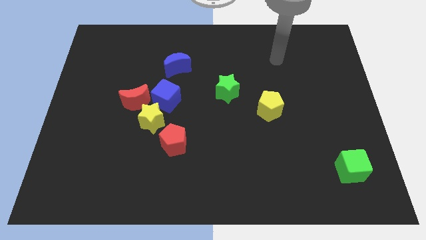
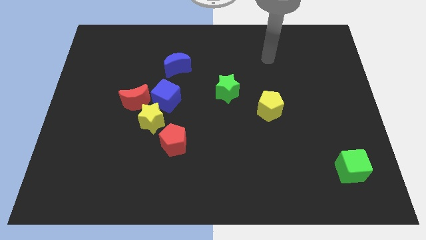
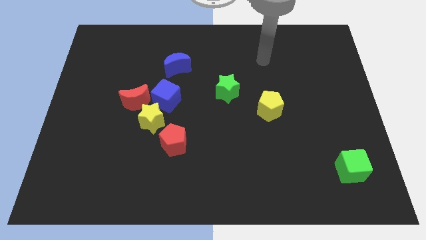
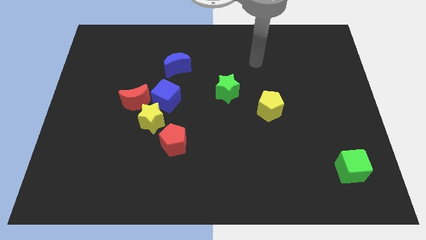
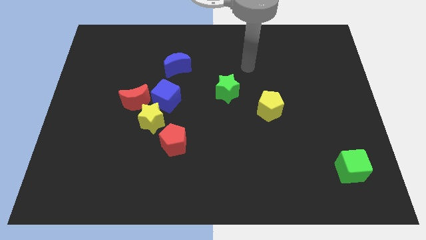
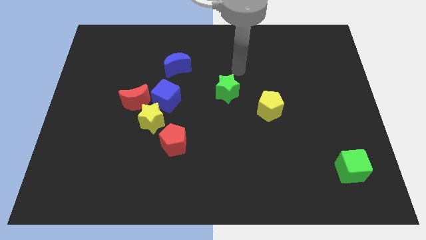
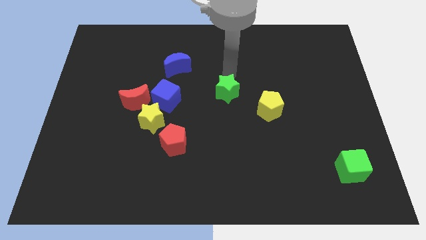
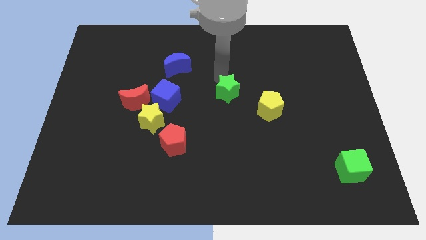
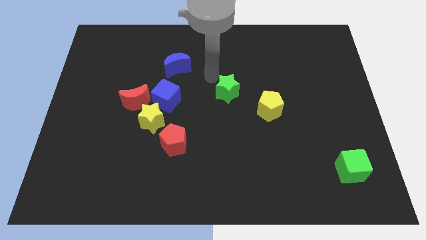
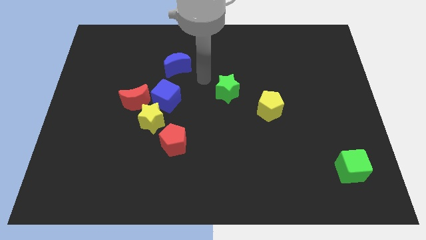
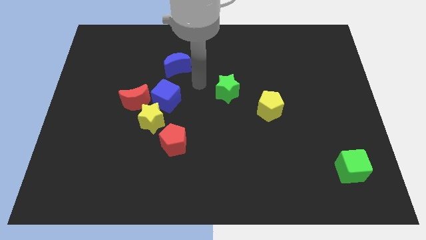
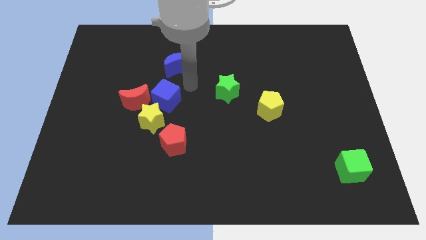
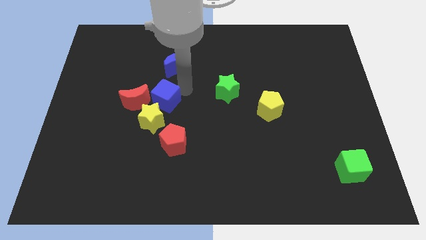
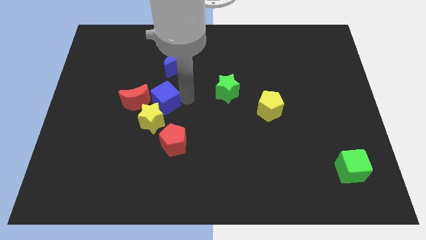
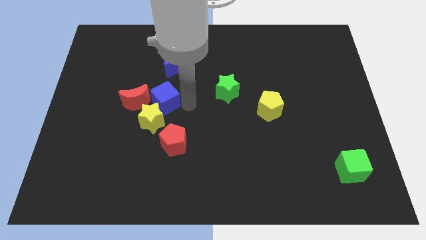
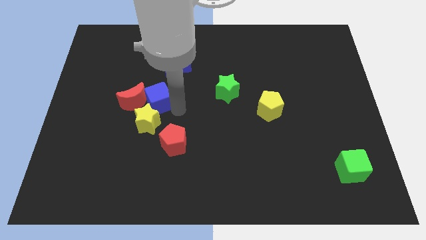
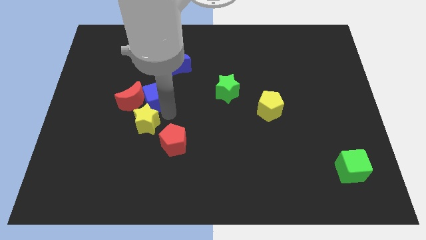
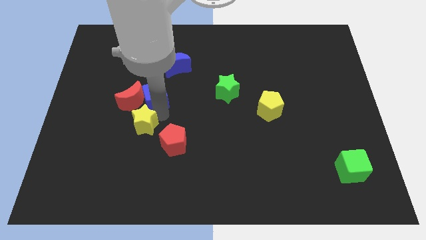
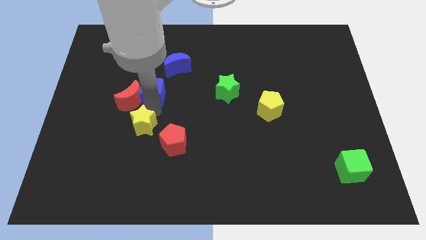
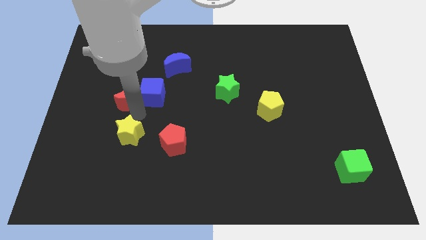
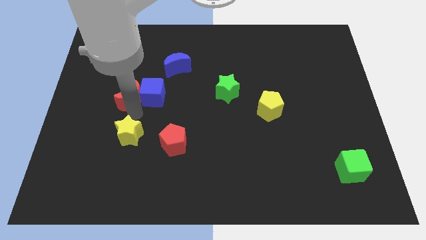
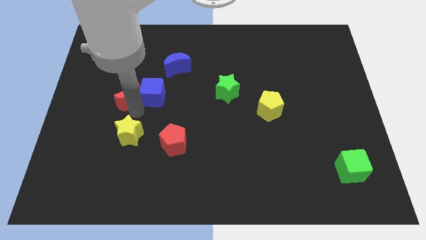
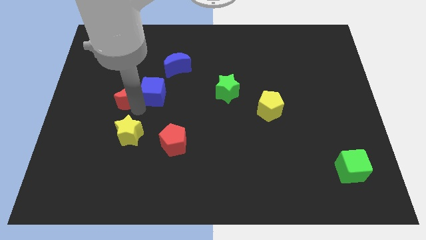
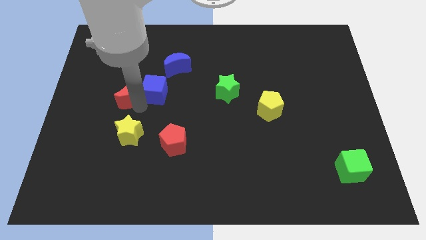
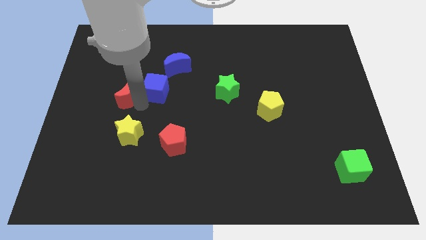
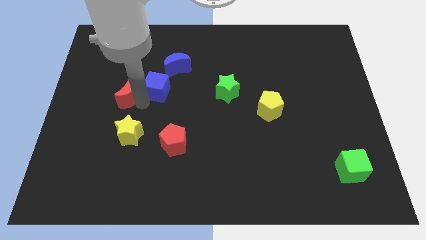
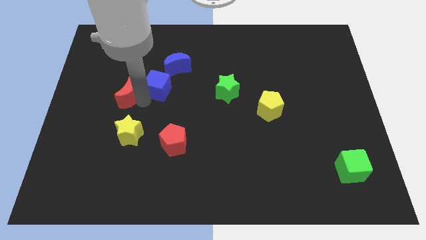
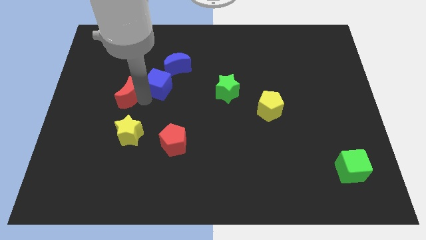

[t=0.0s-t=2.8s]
move the blue cube away from the yellow star and red moon

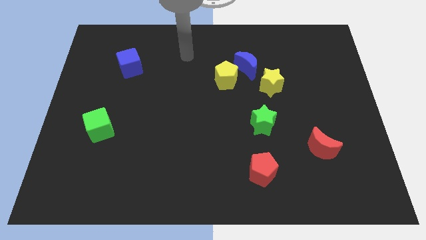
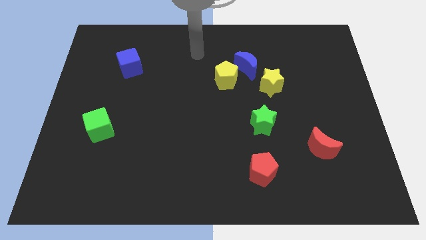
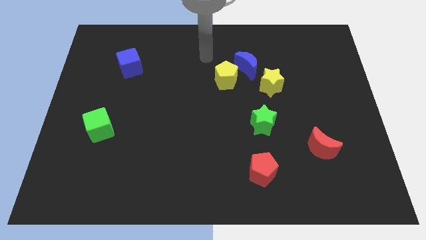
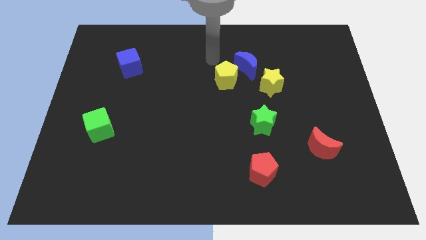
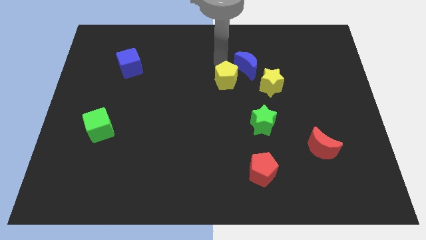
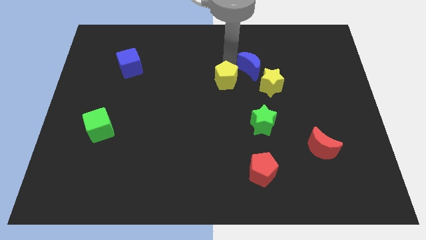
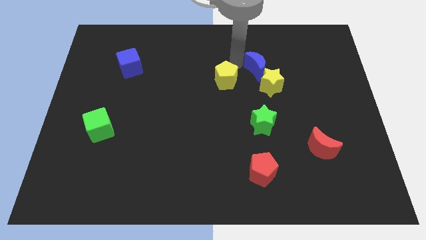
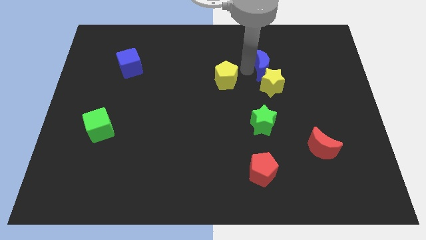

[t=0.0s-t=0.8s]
pull the yellow pentagon apart from the blue moon

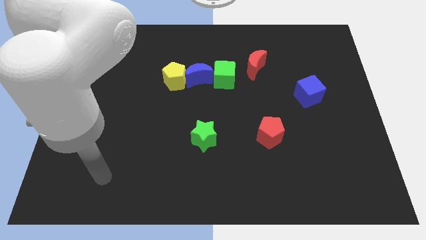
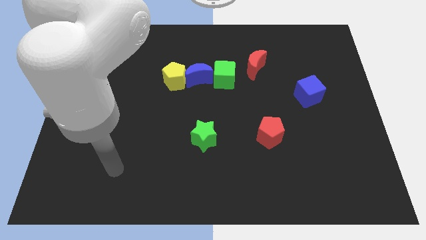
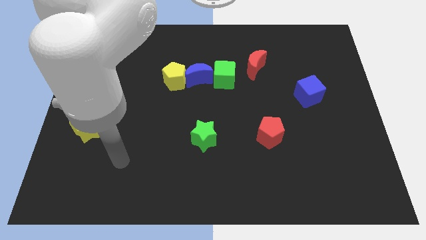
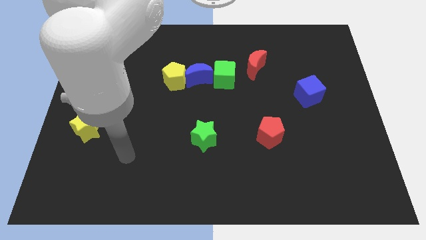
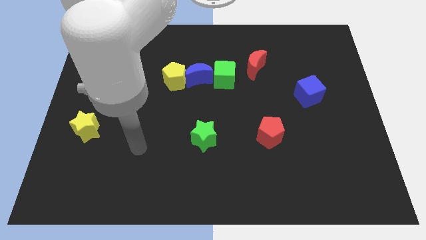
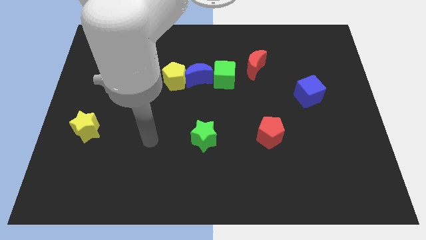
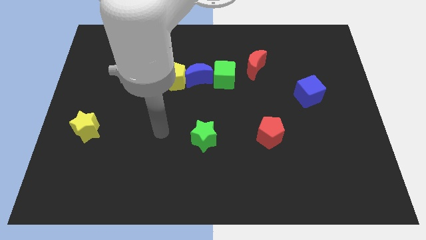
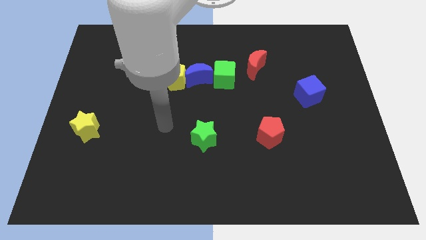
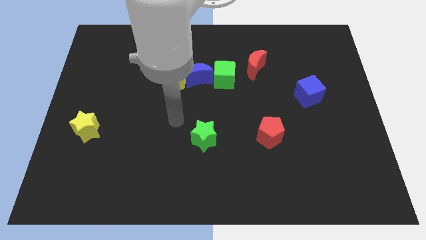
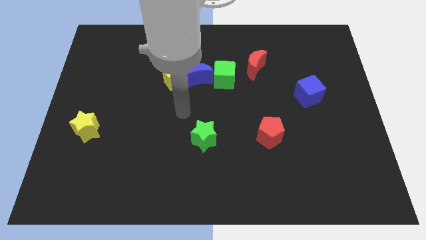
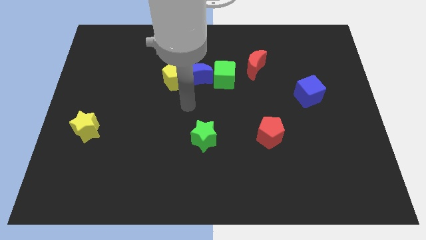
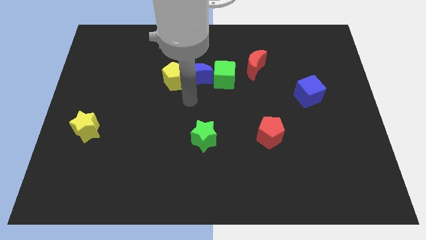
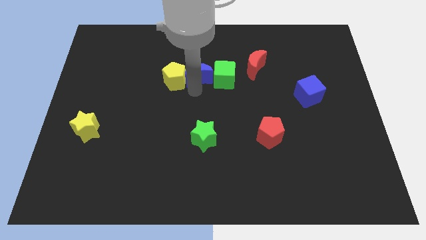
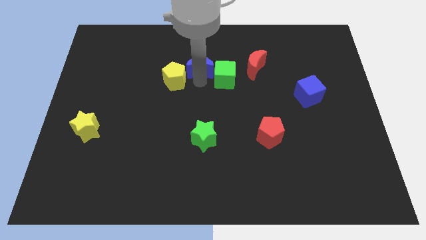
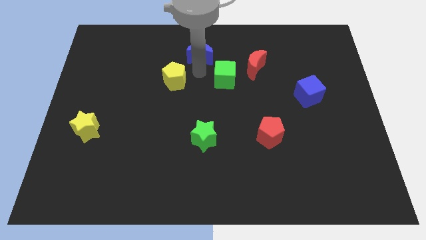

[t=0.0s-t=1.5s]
move the yellow pentagon away from the blue moon

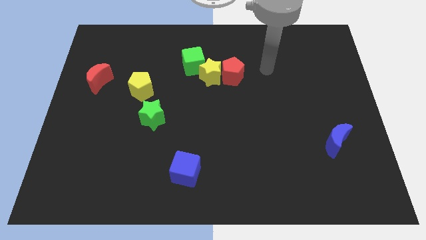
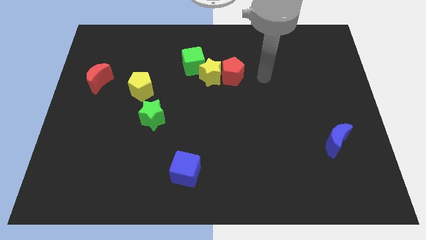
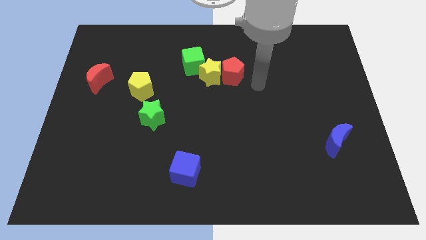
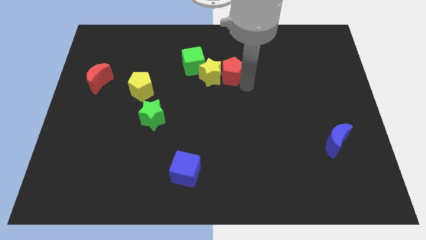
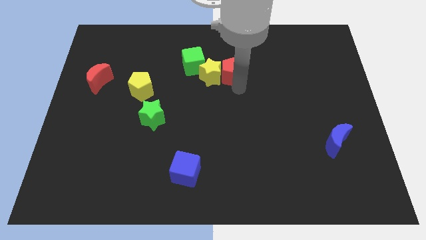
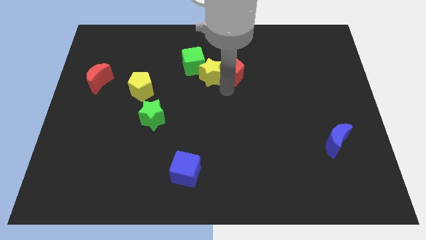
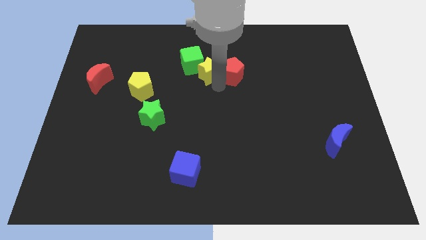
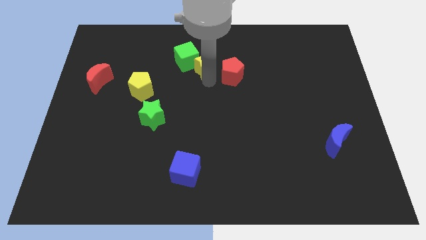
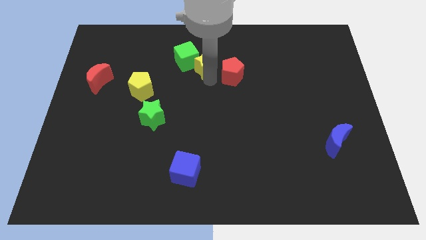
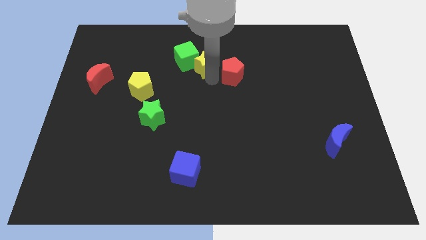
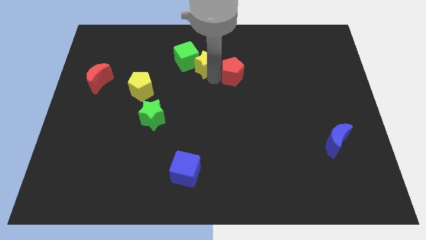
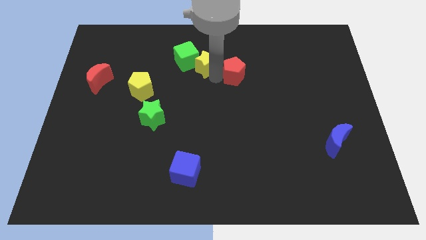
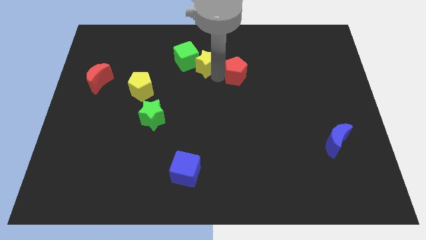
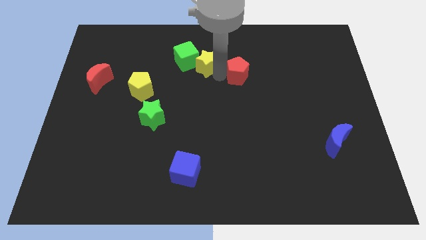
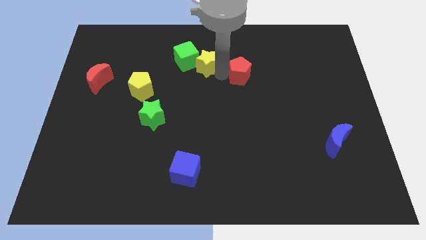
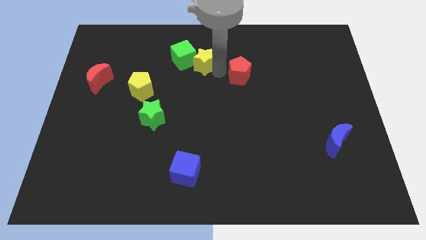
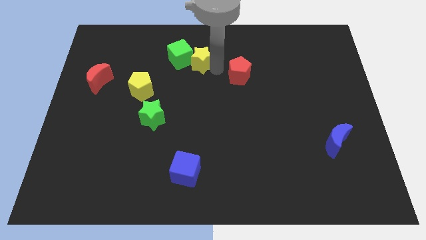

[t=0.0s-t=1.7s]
move the red pentagon away from the yellow star

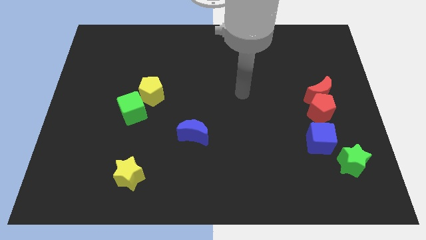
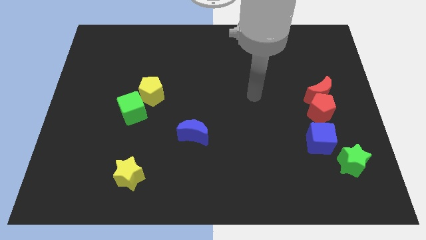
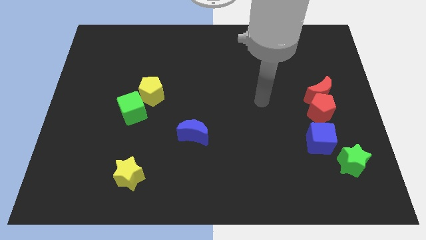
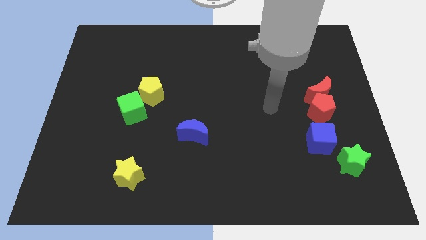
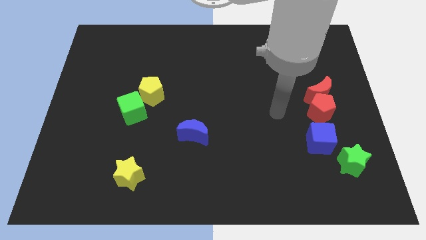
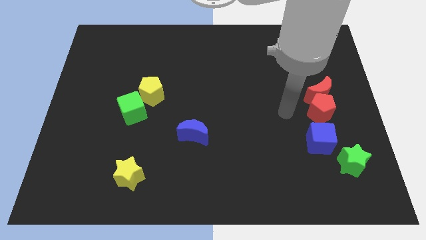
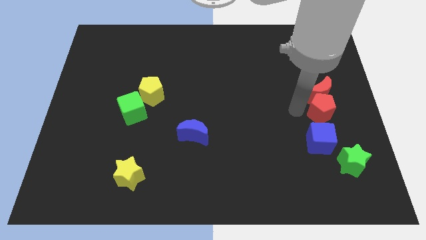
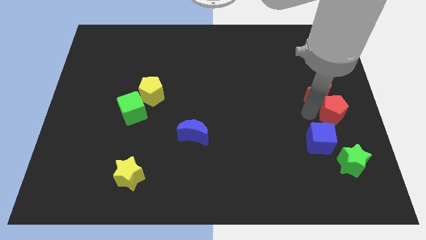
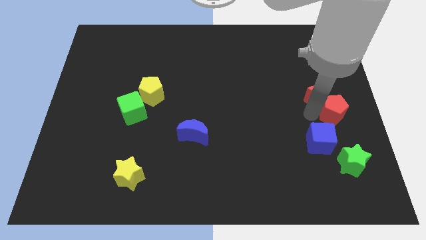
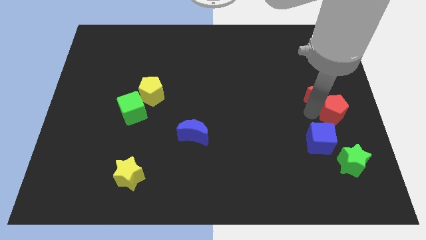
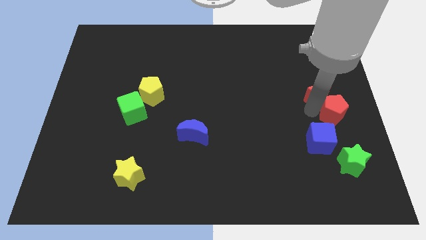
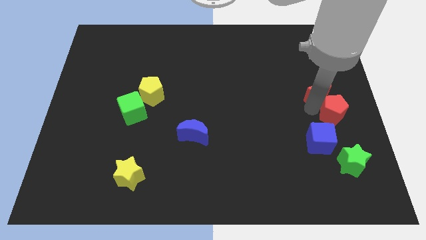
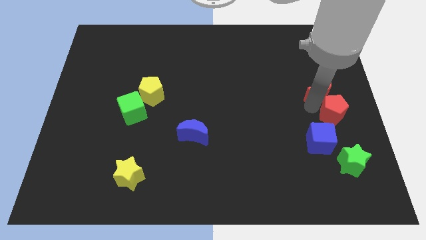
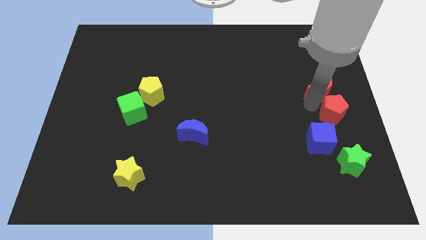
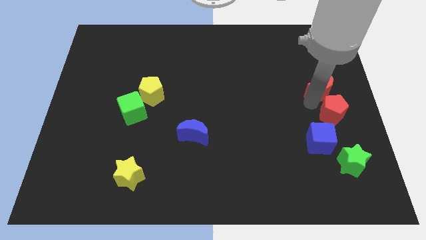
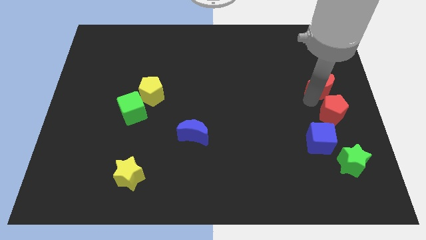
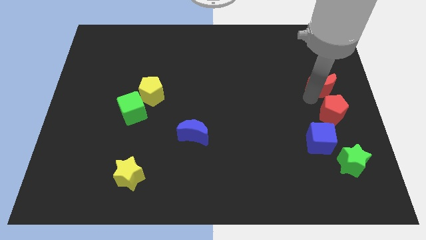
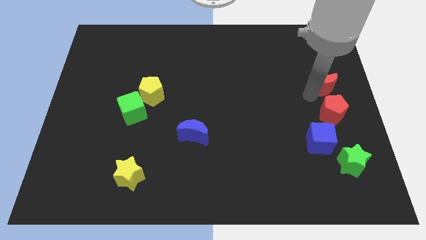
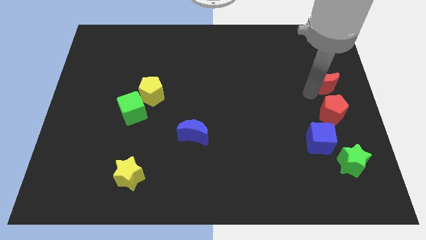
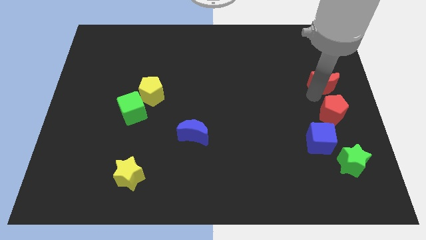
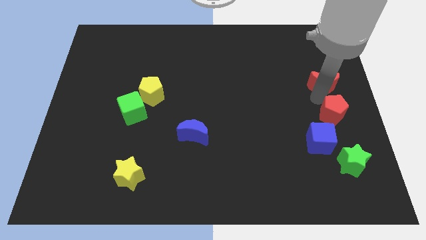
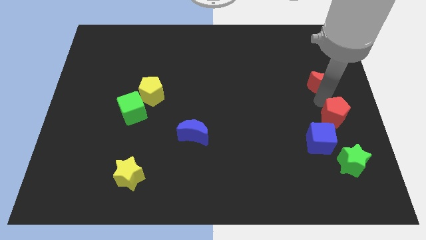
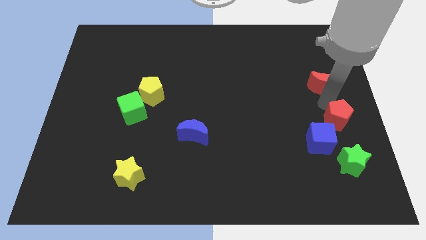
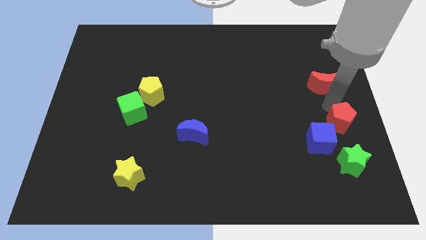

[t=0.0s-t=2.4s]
move the red moon away from the red pentagon

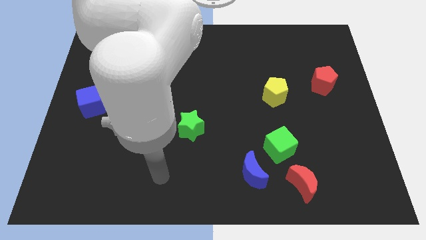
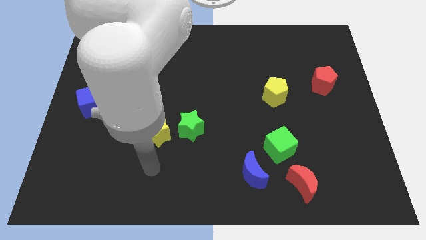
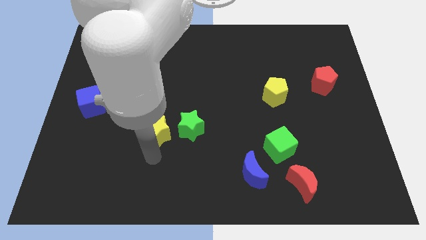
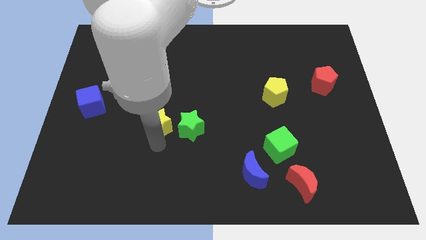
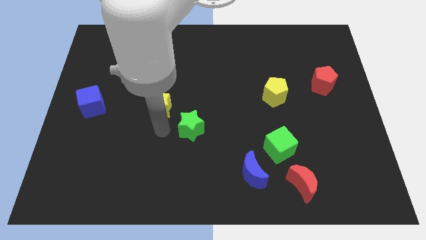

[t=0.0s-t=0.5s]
pull the green star apart from the yellow star
